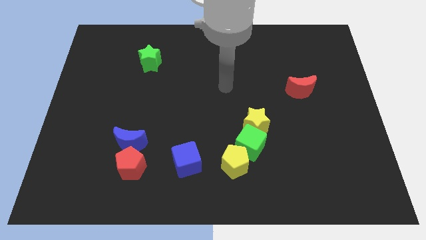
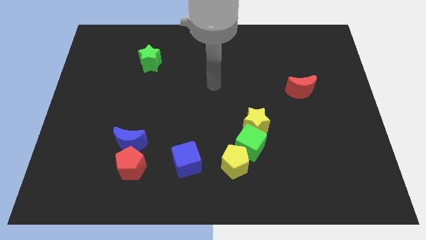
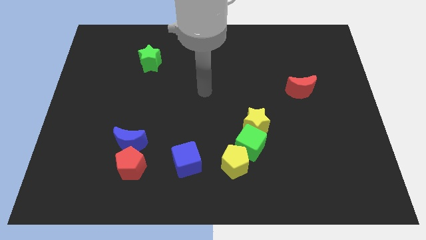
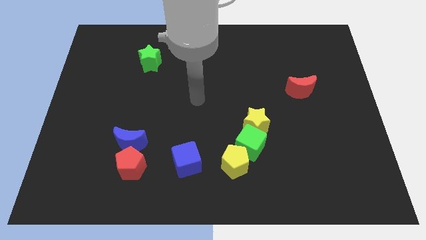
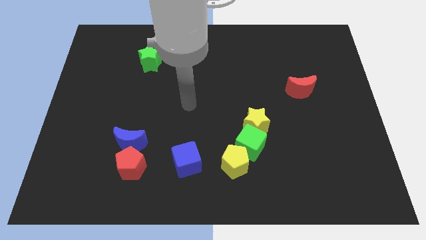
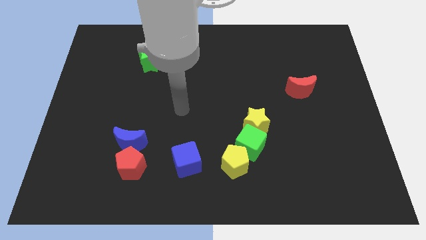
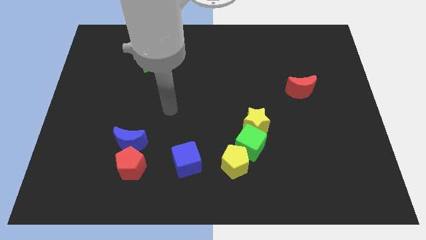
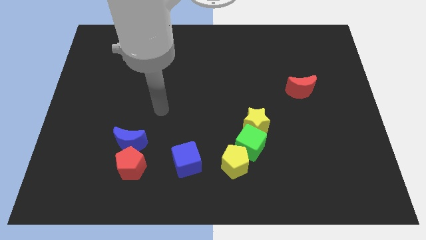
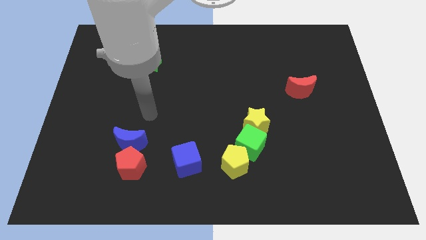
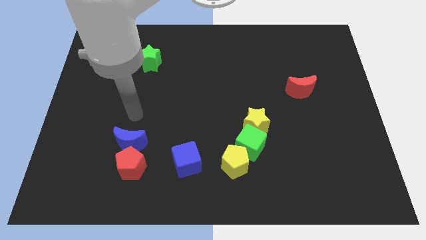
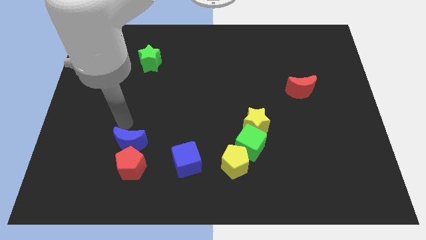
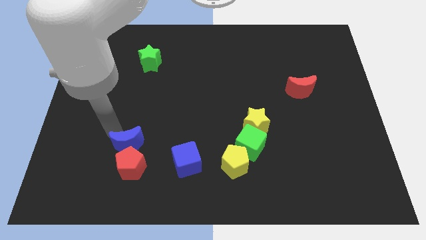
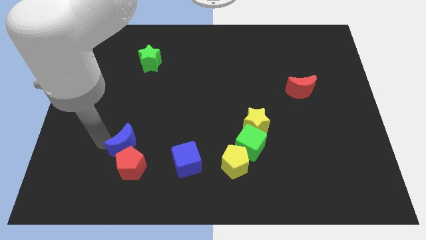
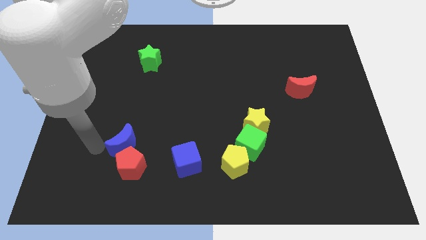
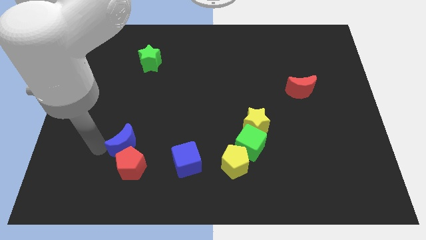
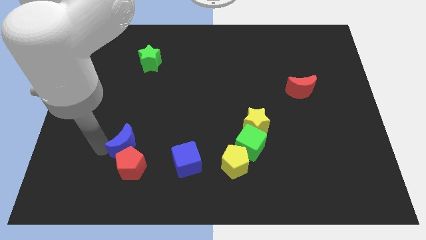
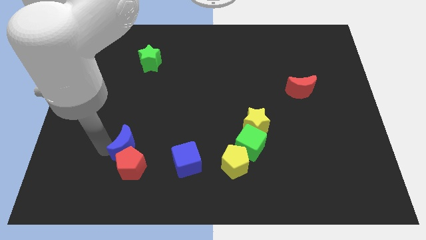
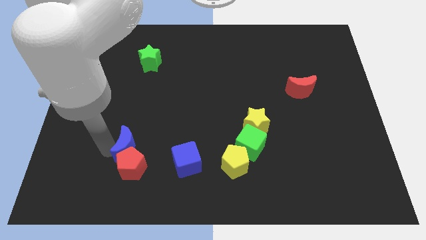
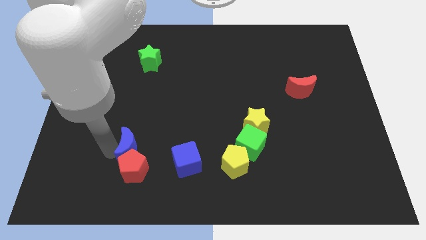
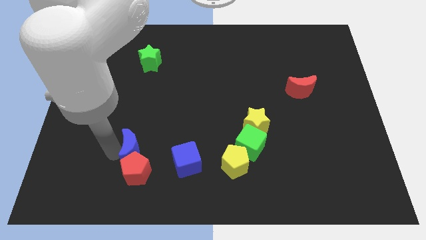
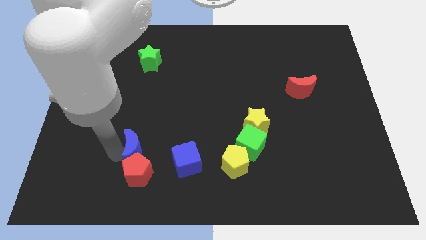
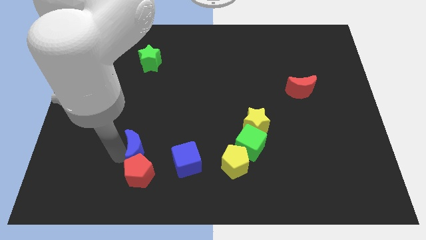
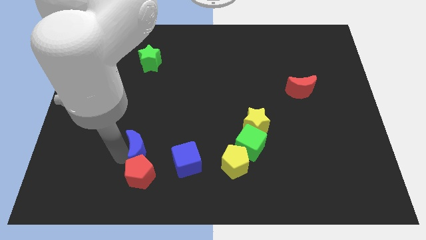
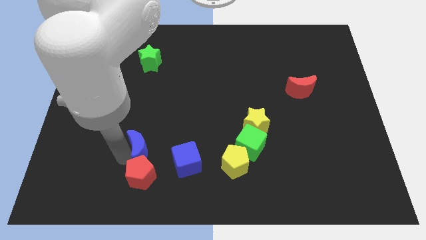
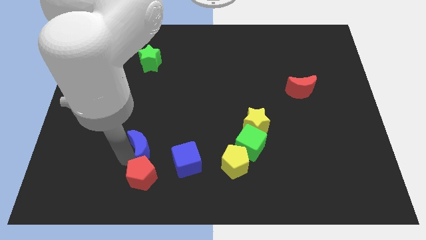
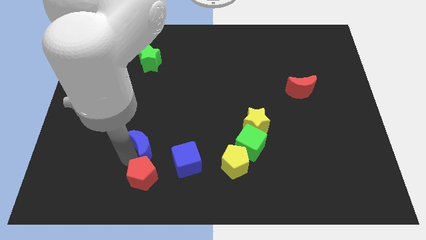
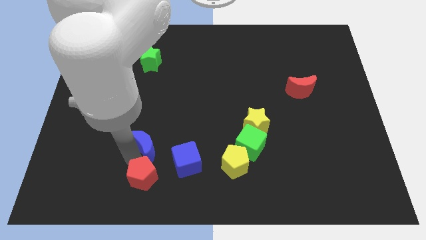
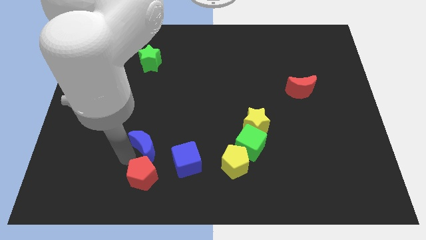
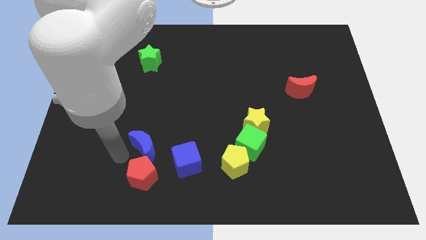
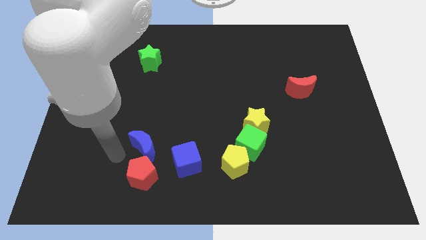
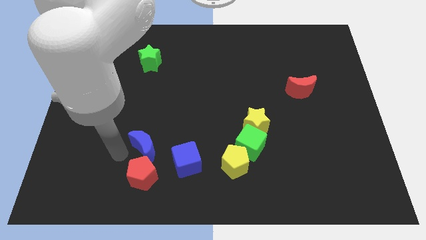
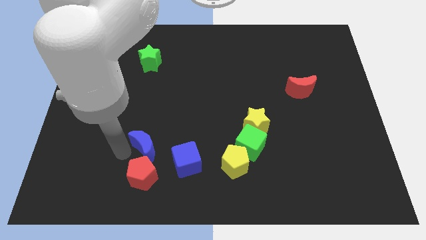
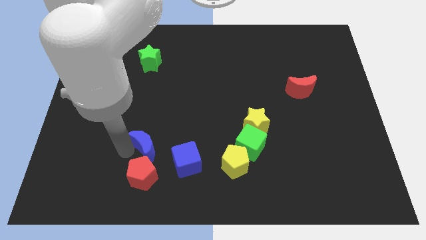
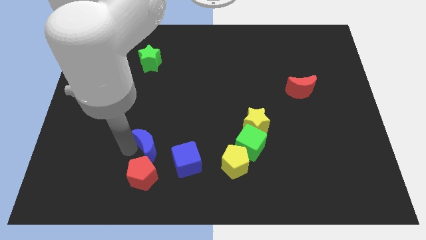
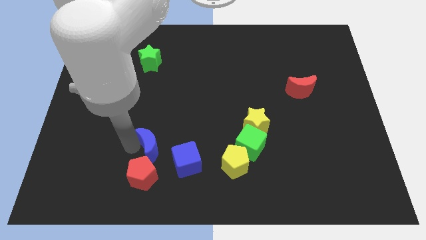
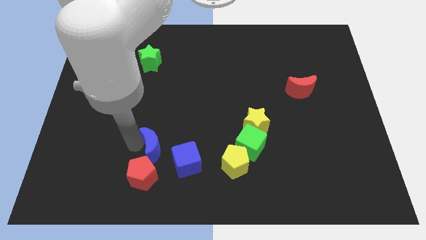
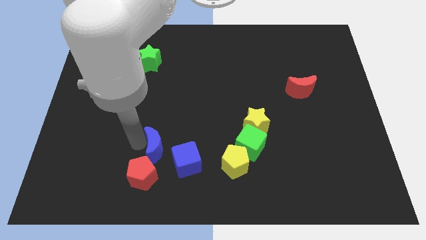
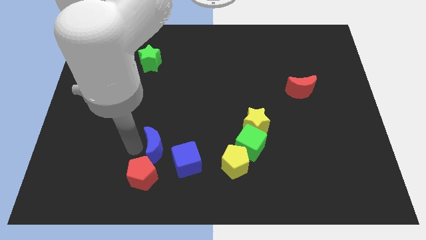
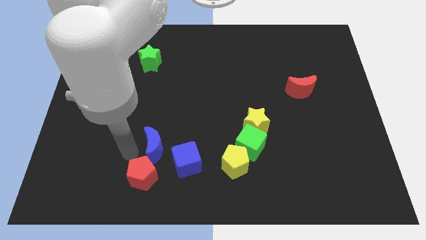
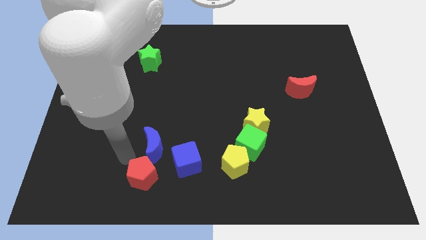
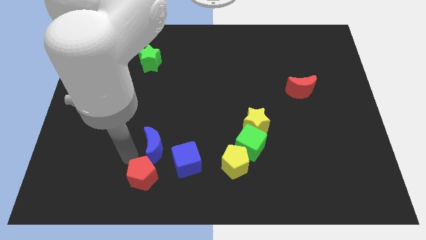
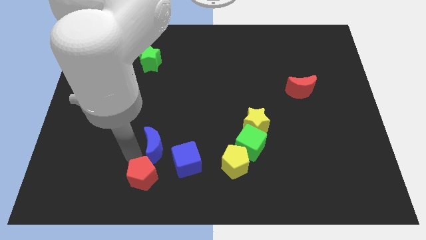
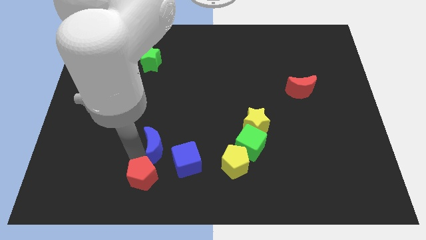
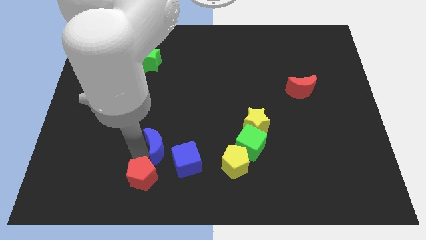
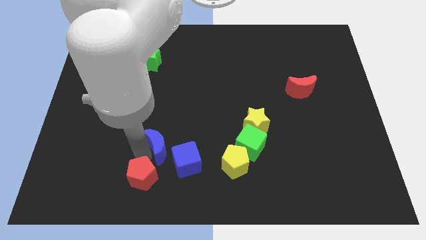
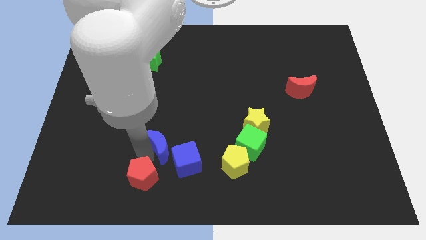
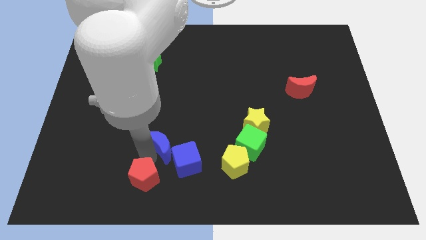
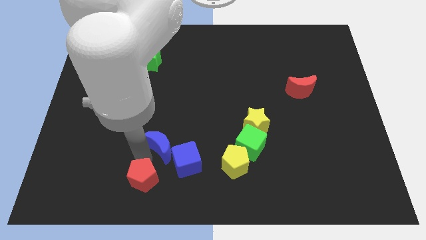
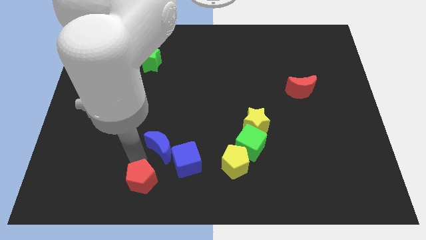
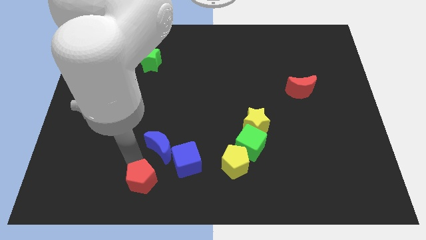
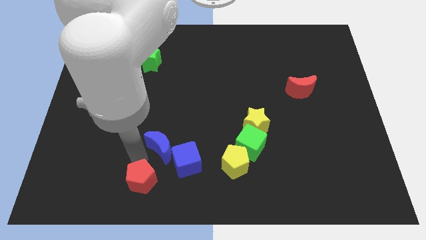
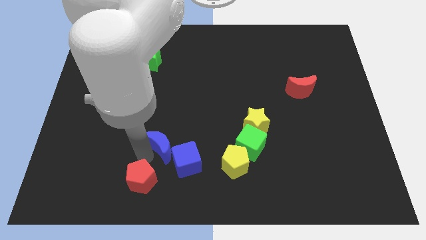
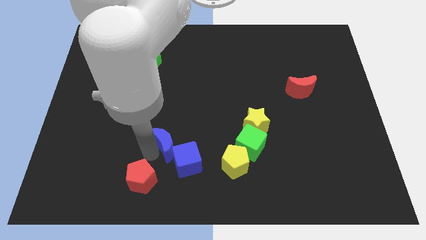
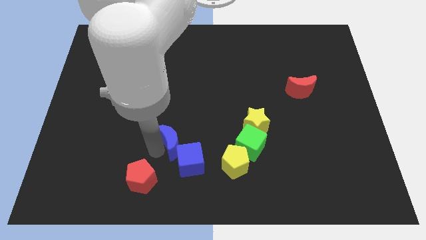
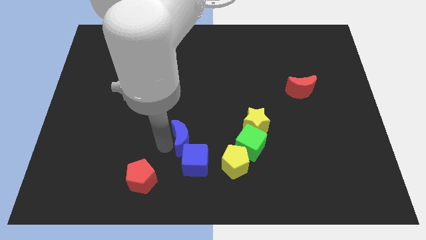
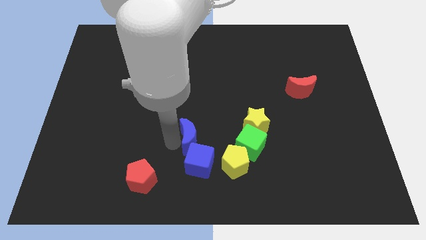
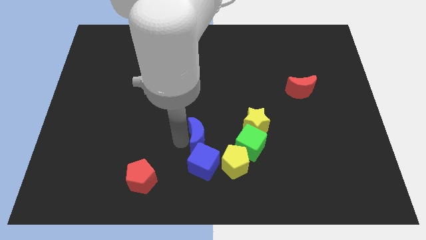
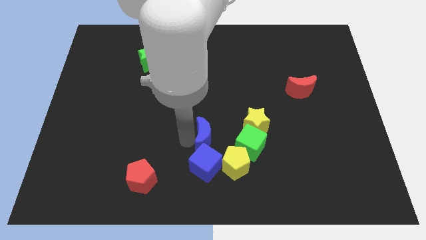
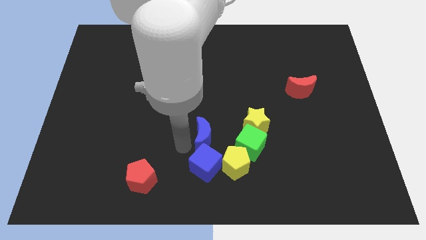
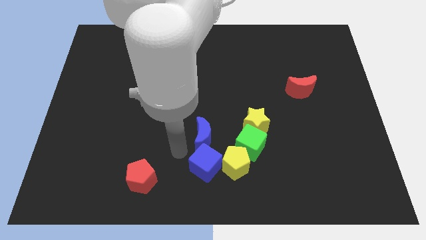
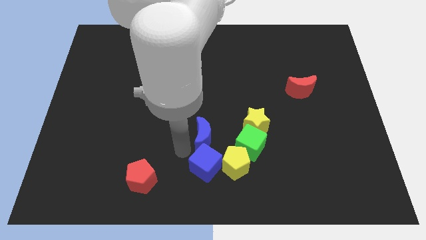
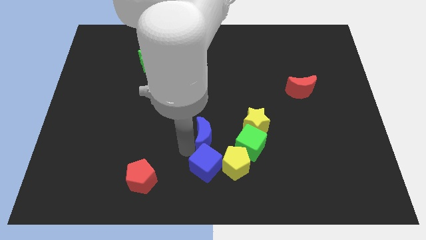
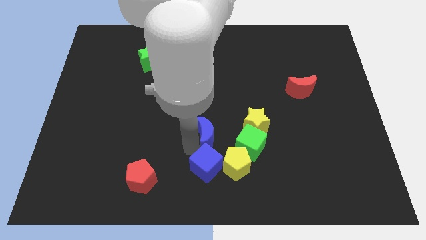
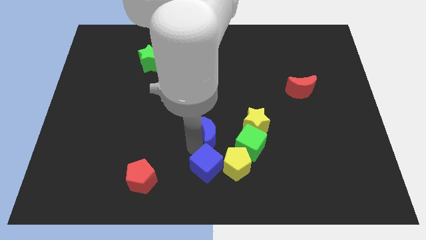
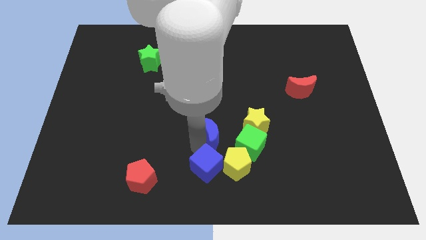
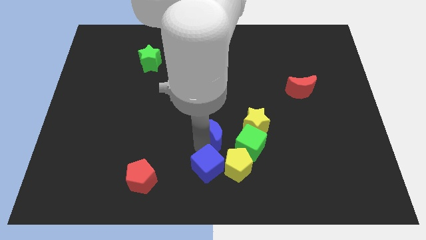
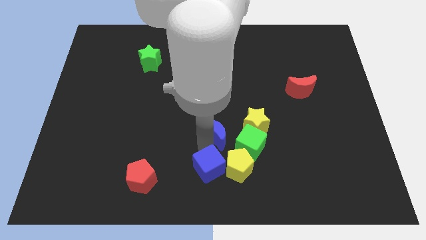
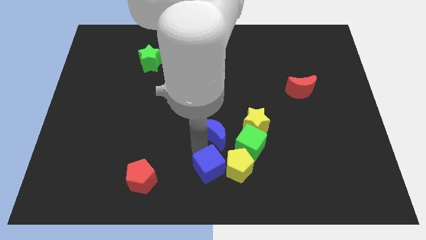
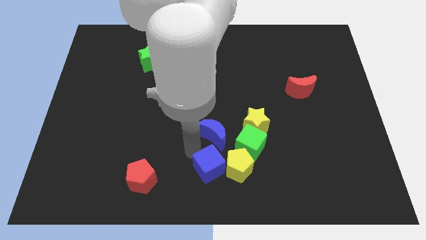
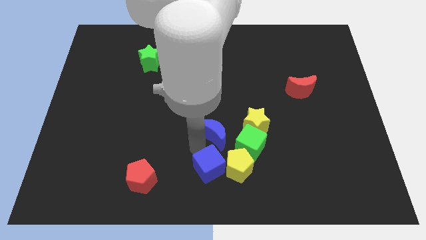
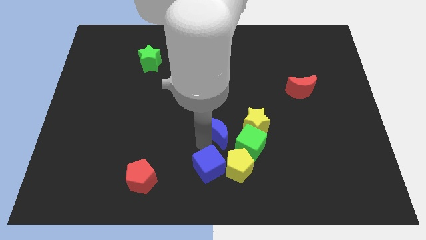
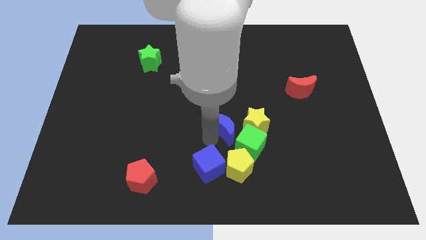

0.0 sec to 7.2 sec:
push the blue moon to the right

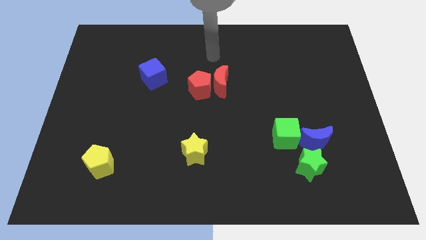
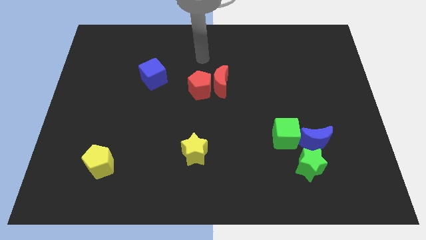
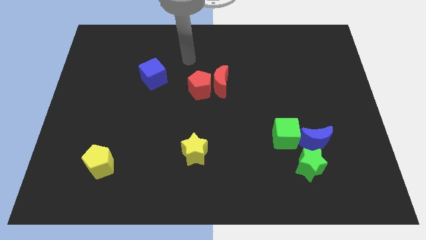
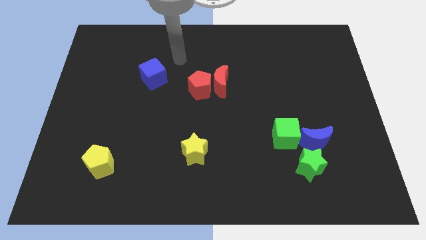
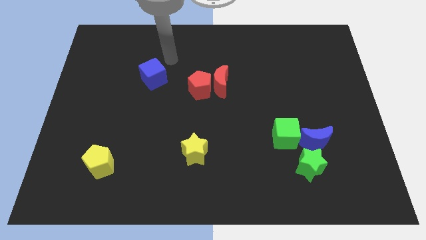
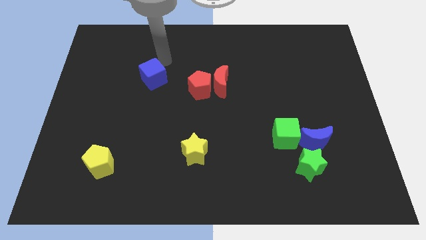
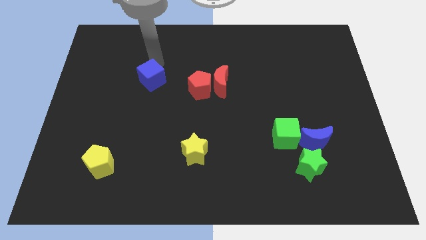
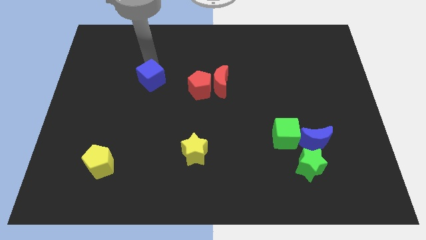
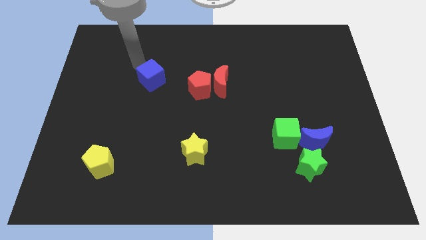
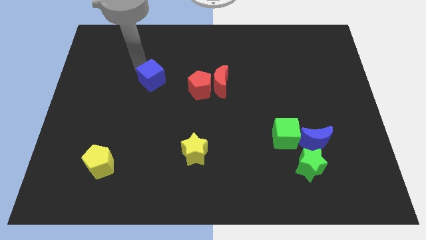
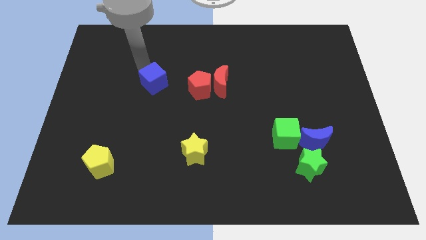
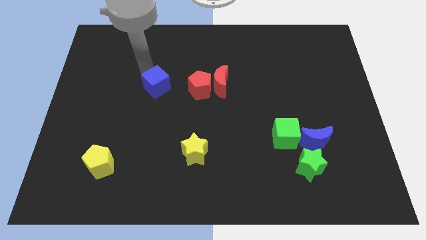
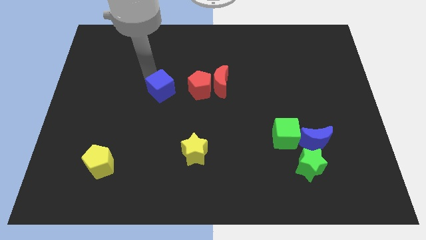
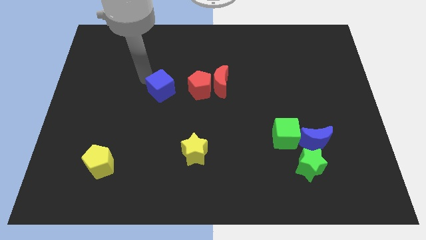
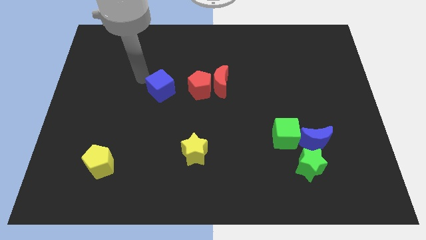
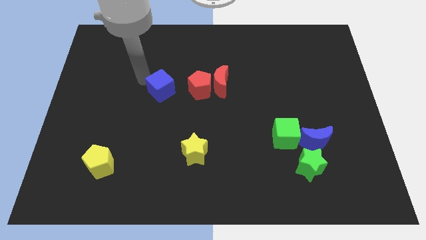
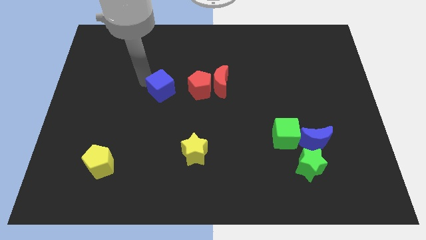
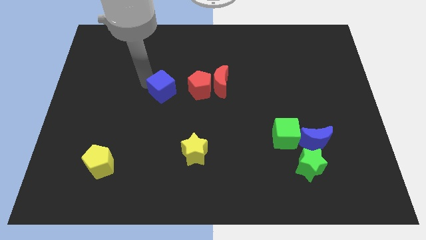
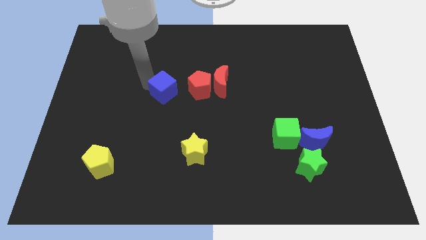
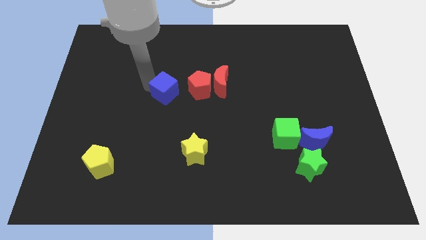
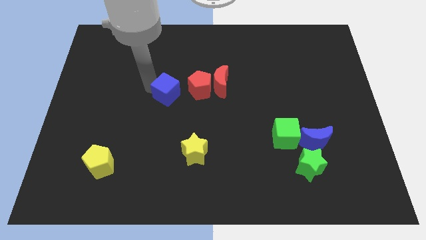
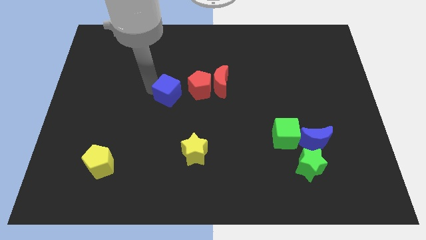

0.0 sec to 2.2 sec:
slide the blue cube down and to the right somewhat
